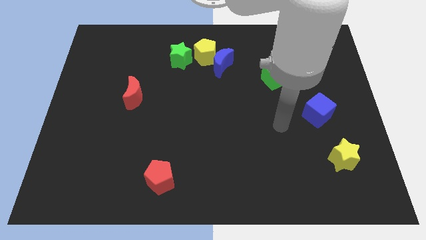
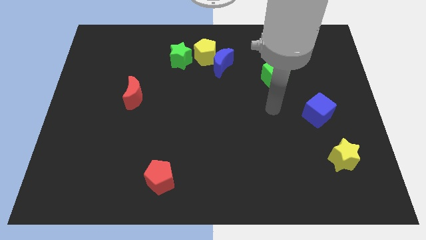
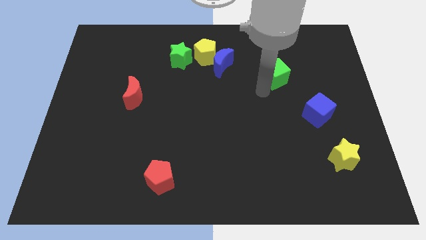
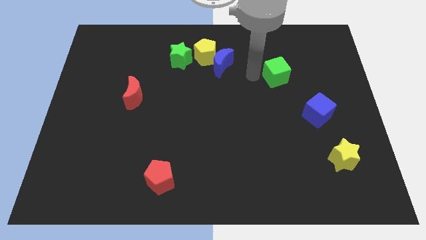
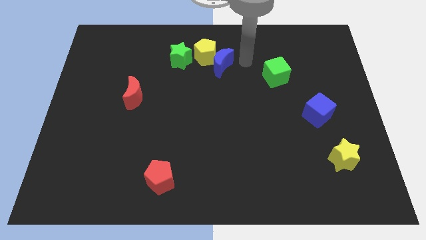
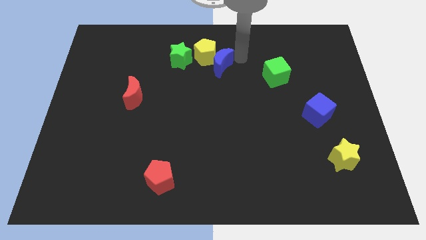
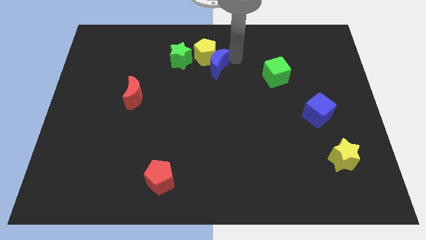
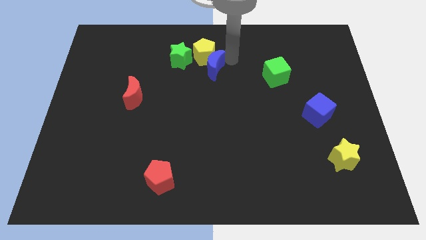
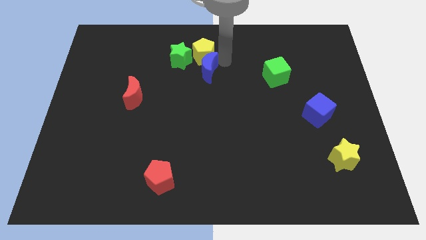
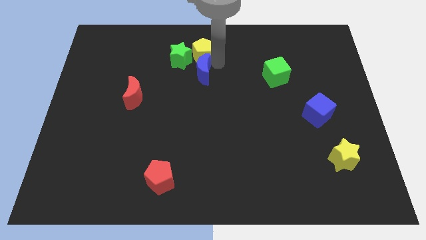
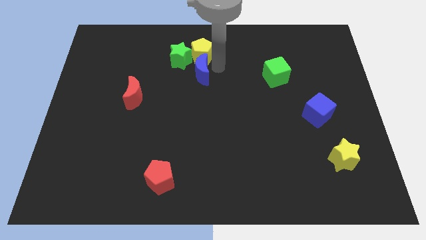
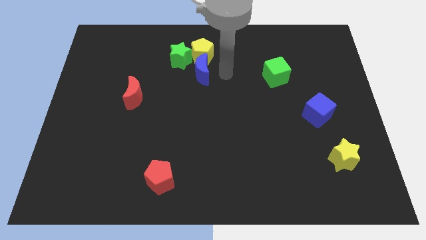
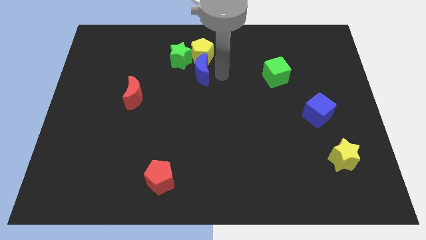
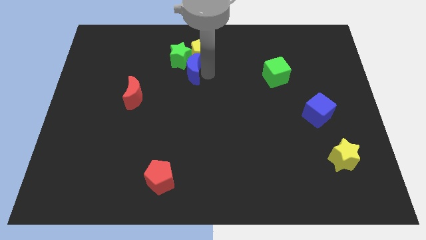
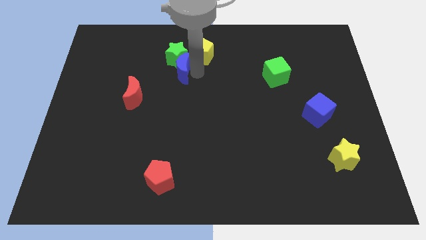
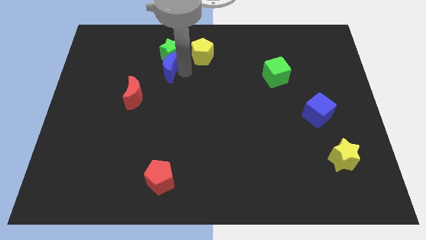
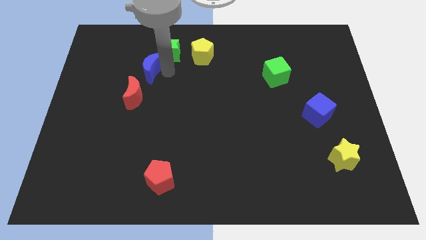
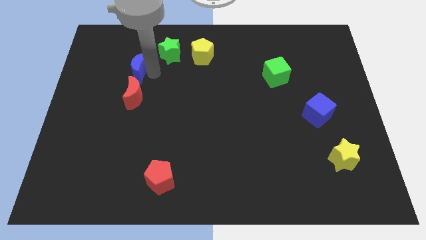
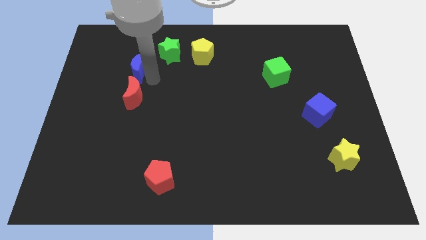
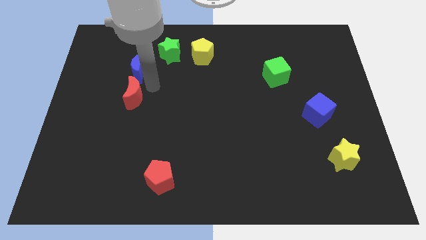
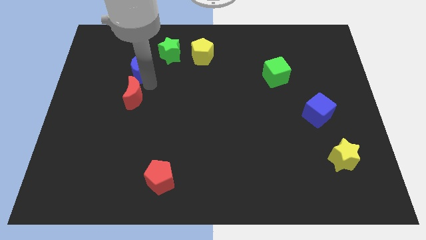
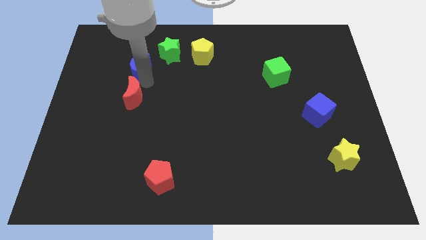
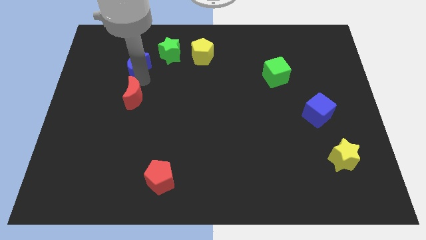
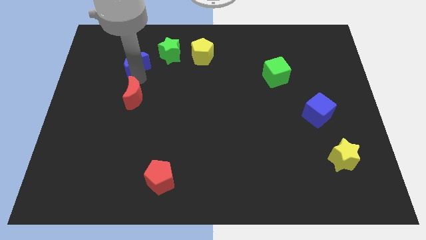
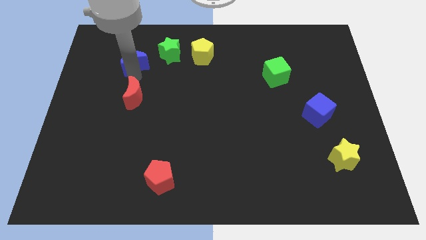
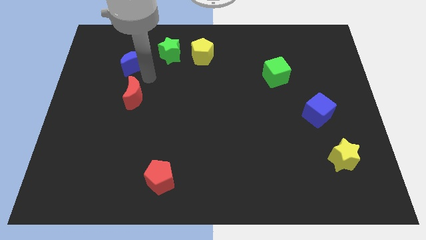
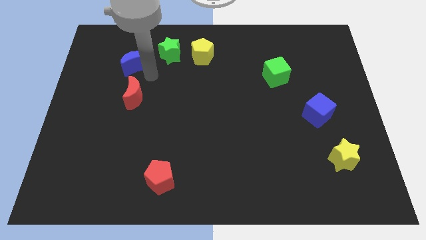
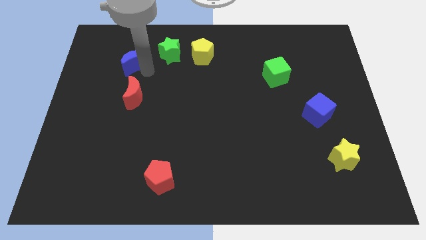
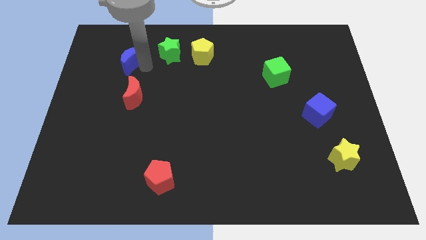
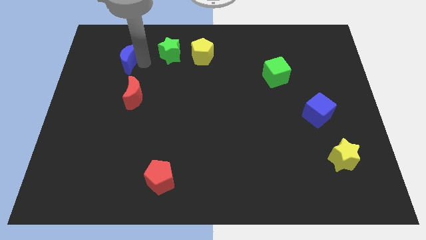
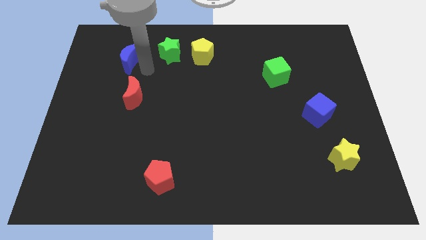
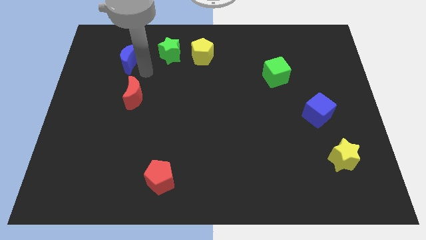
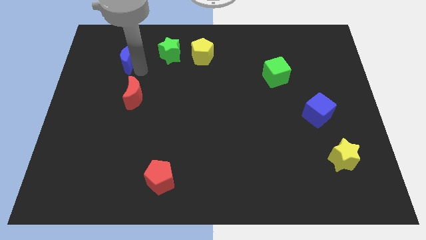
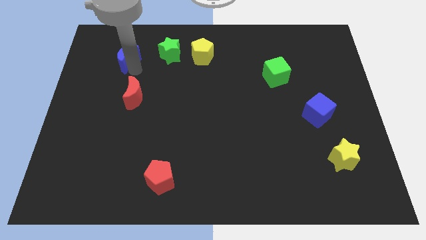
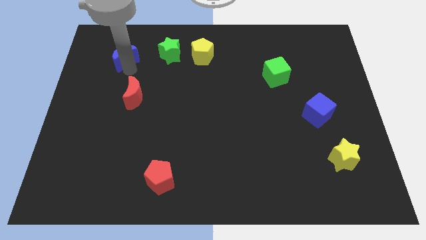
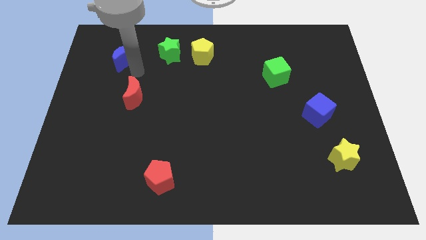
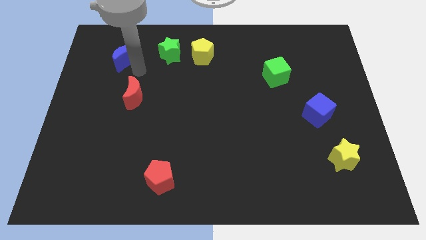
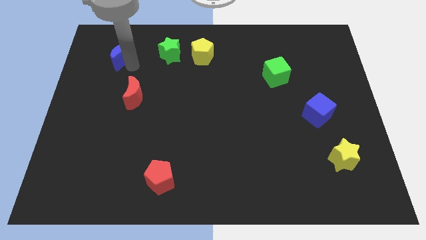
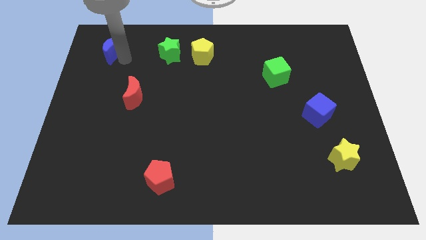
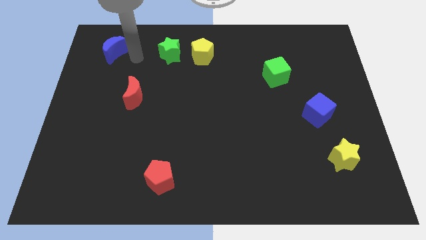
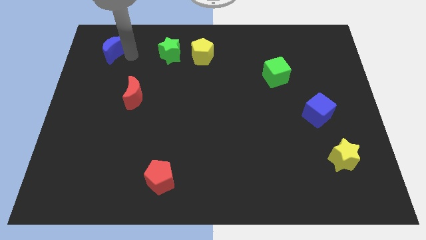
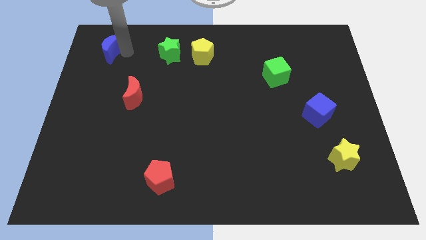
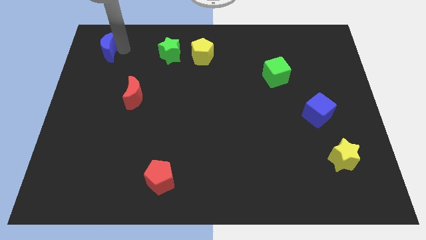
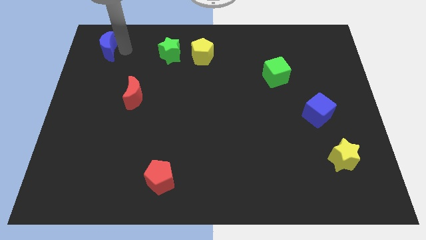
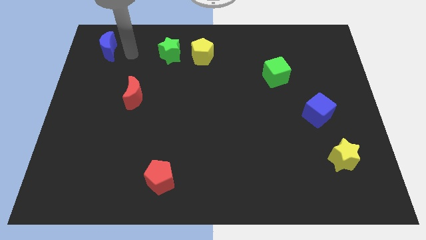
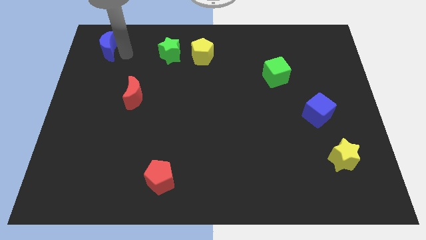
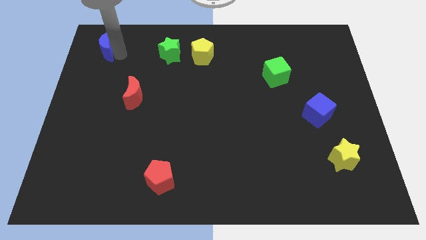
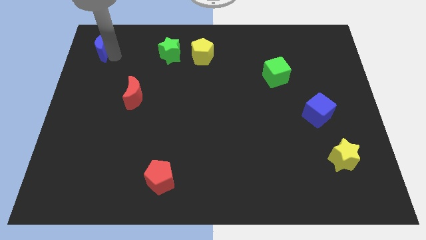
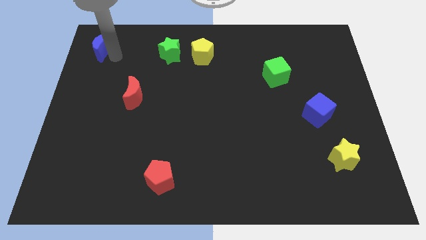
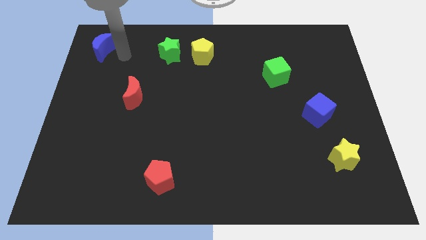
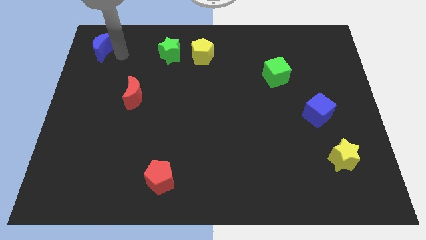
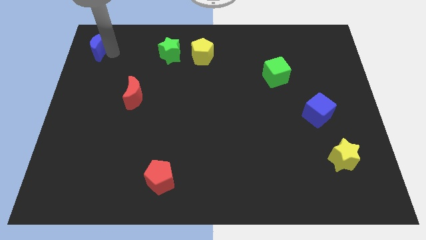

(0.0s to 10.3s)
slide the blue moon to the top left corner

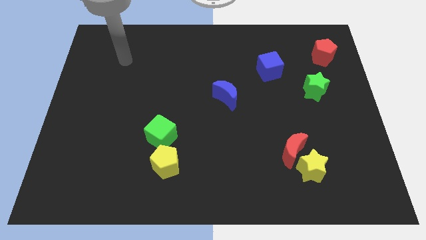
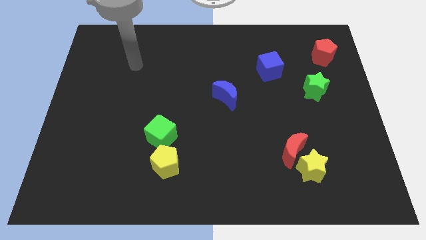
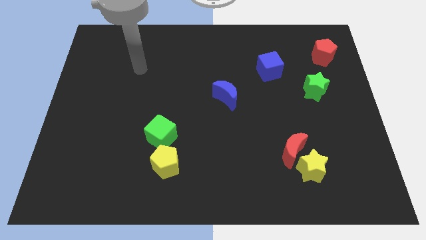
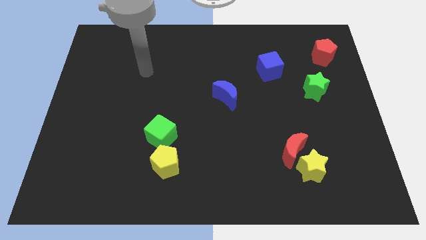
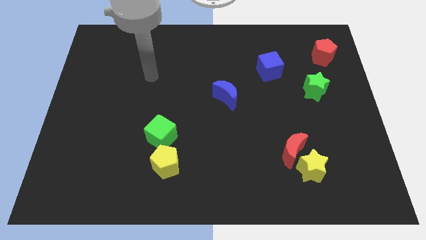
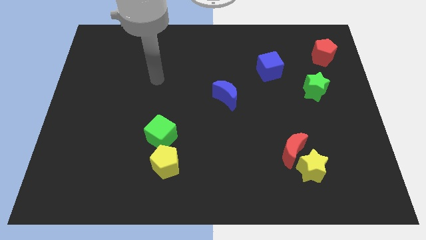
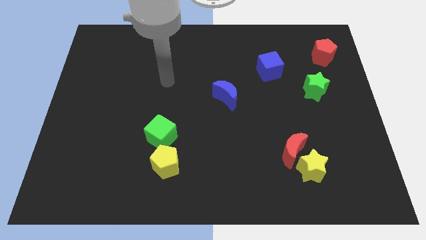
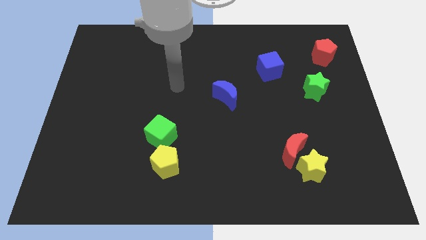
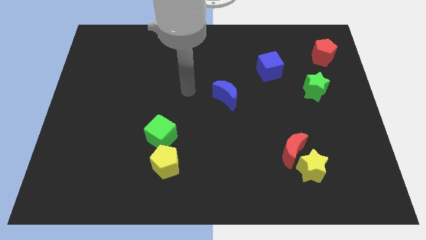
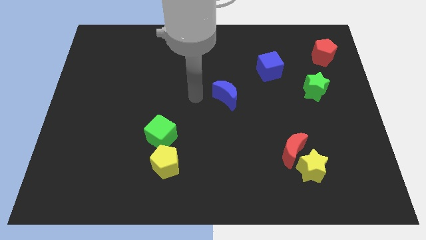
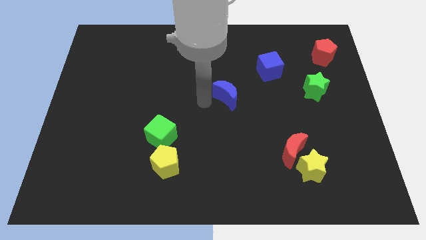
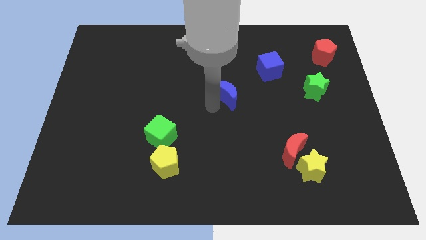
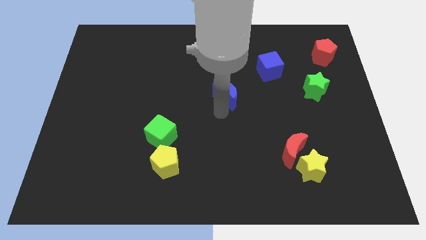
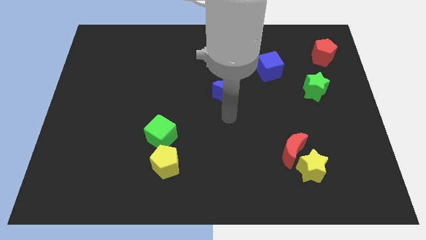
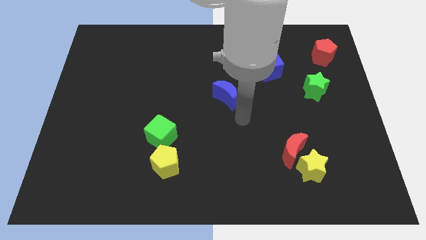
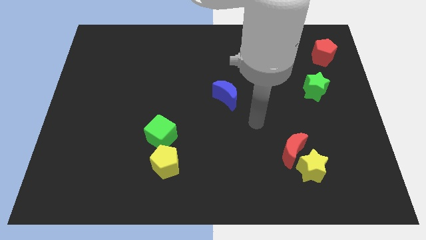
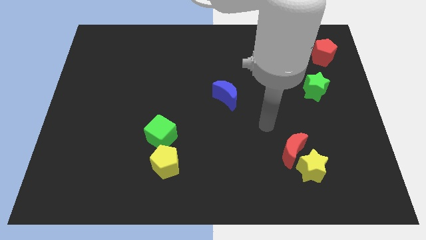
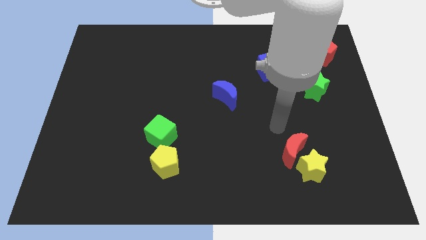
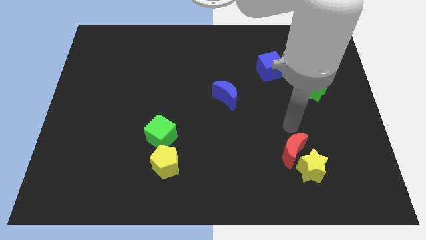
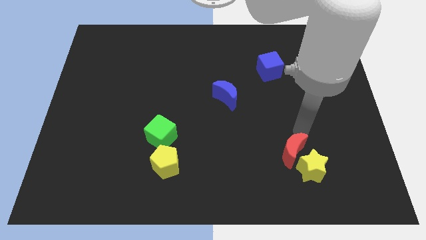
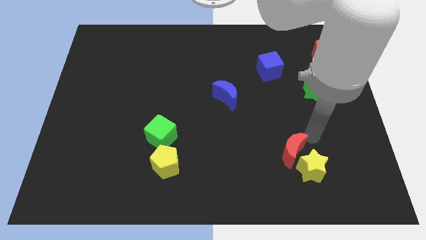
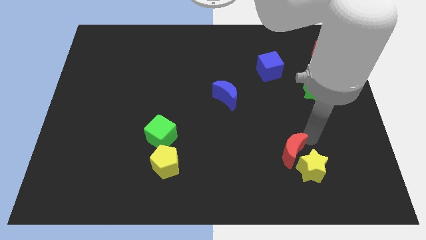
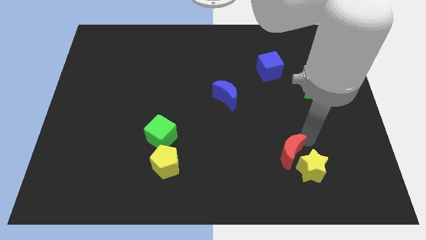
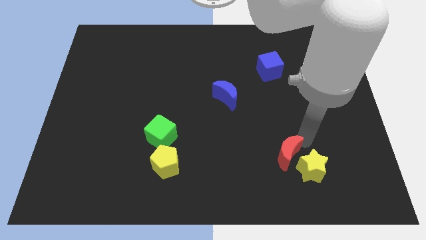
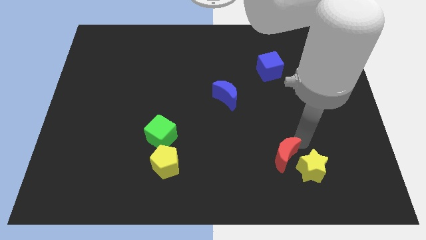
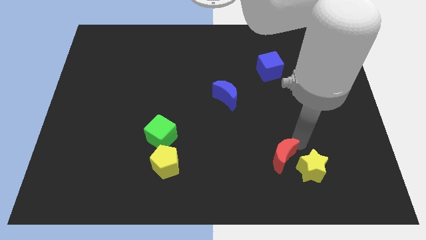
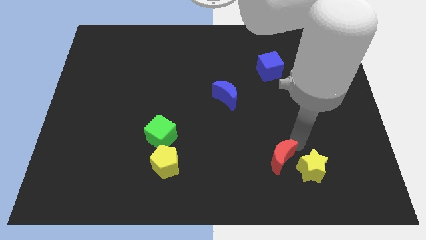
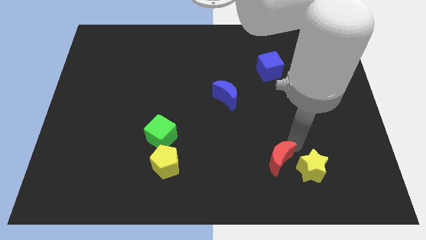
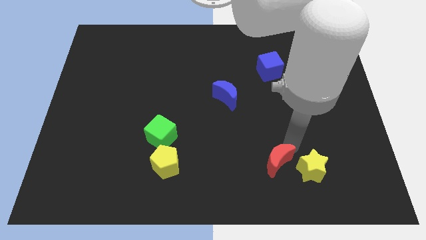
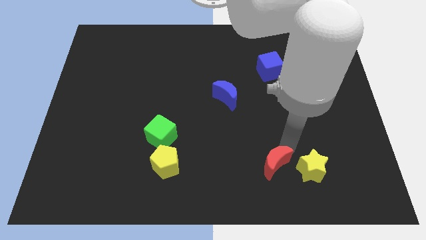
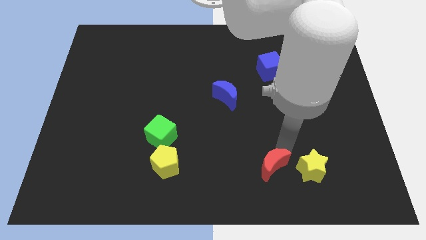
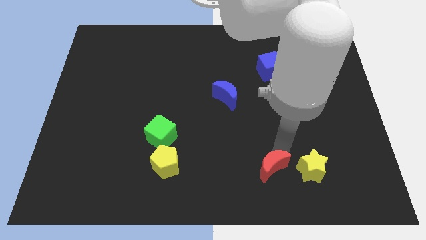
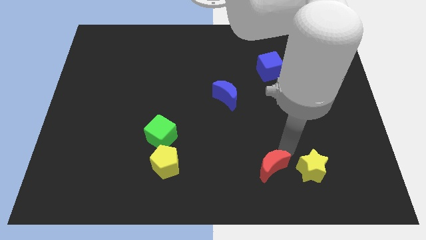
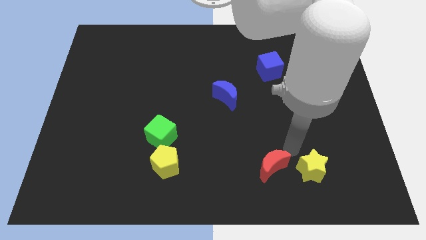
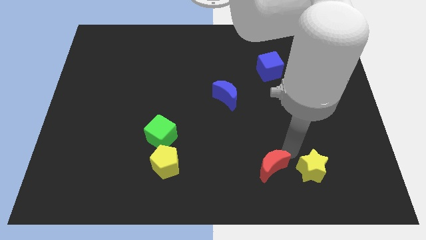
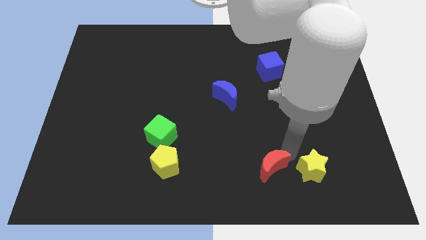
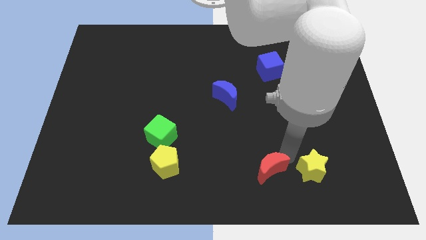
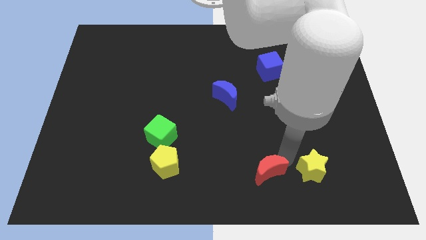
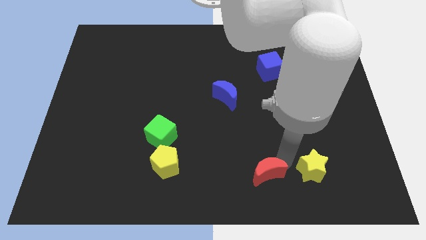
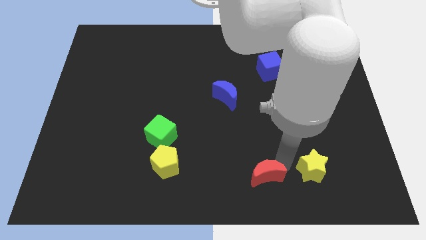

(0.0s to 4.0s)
slide the red moon to the bottom side
